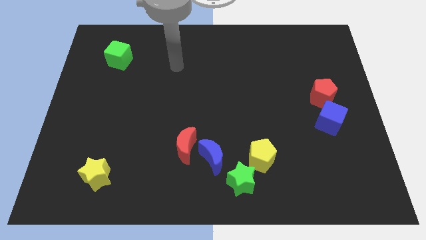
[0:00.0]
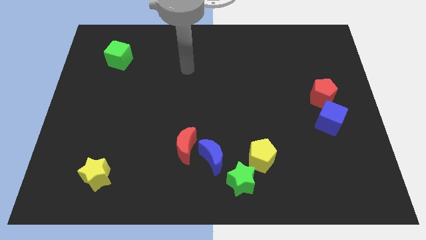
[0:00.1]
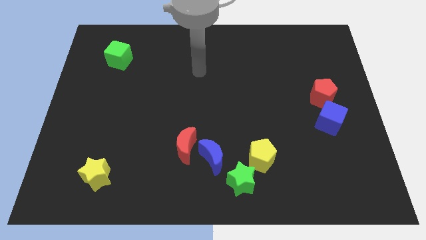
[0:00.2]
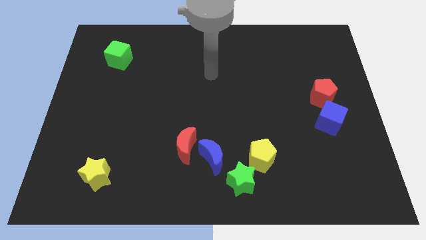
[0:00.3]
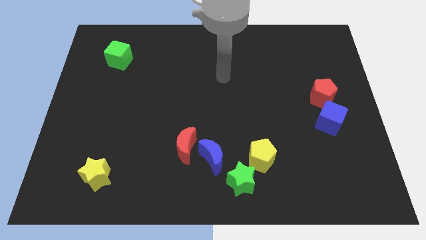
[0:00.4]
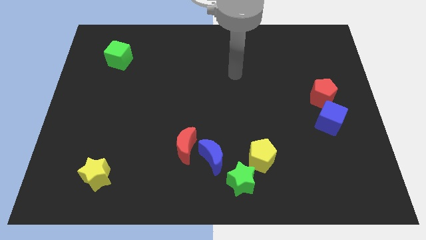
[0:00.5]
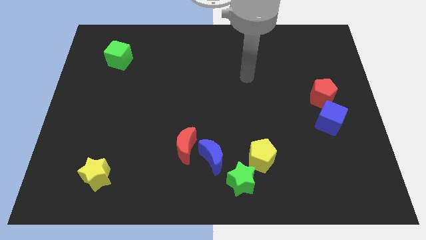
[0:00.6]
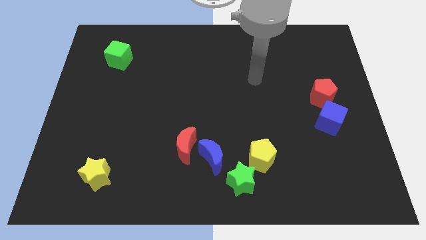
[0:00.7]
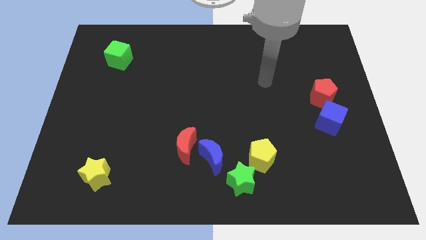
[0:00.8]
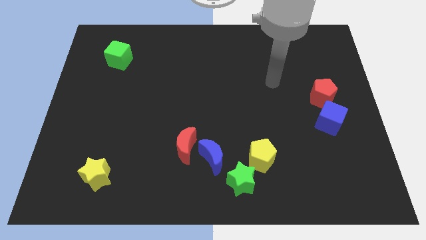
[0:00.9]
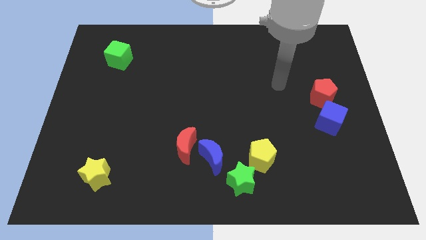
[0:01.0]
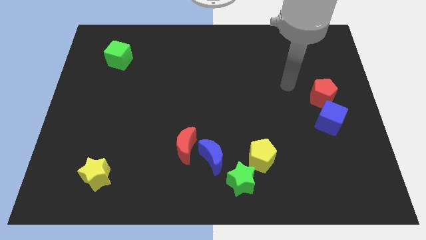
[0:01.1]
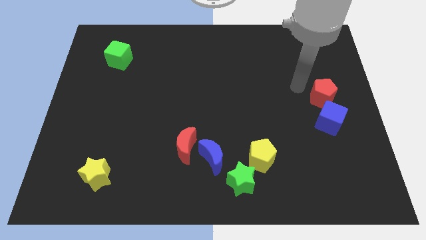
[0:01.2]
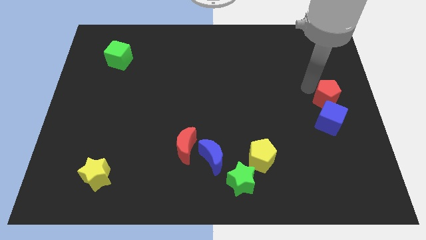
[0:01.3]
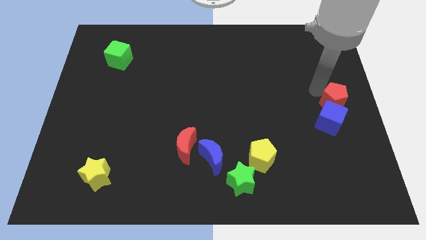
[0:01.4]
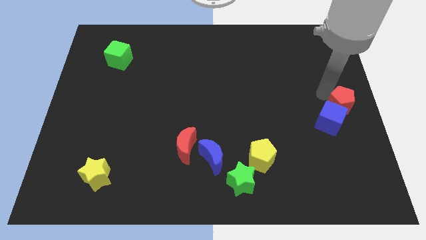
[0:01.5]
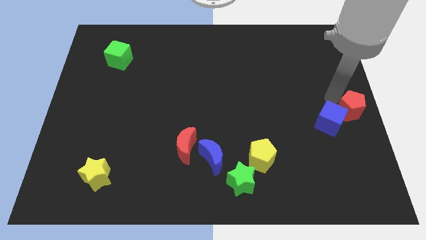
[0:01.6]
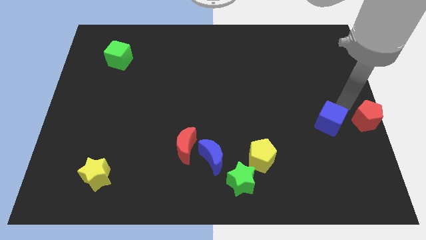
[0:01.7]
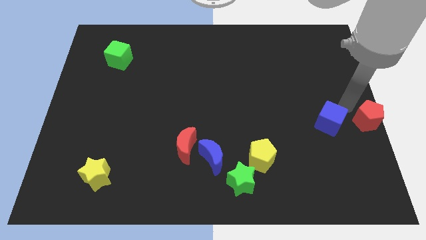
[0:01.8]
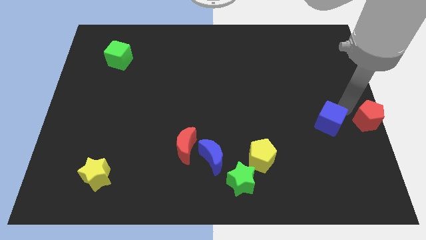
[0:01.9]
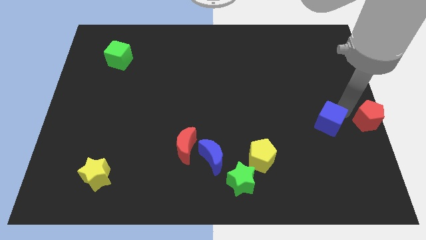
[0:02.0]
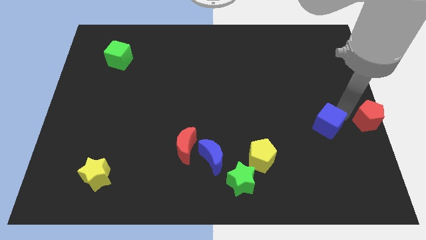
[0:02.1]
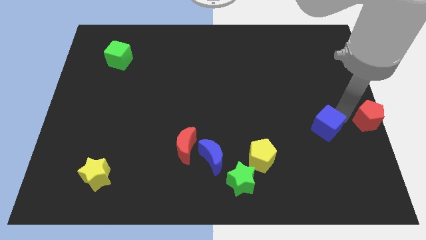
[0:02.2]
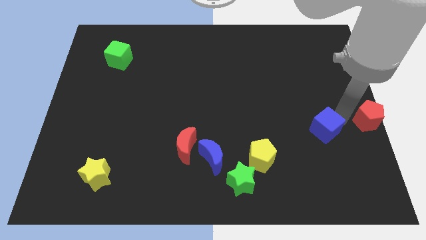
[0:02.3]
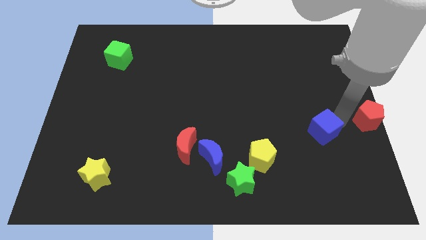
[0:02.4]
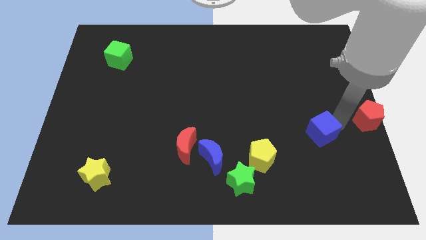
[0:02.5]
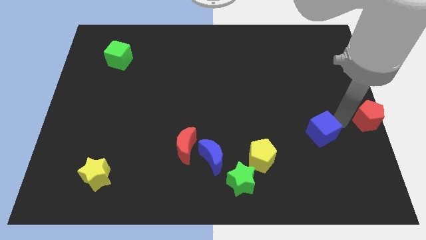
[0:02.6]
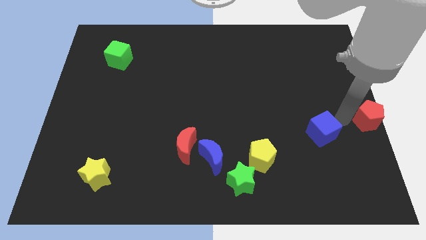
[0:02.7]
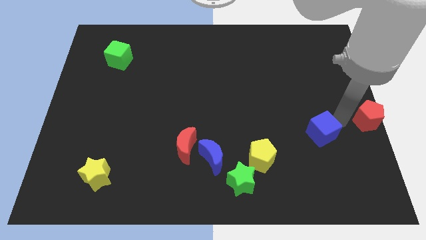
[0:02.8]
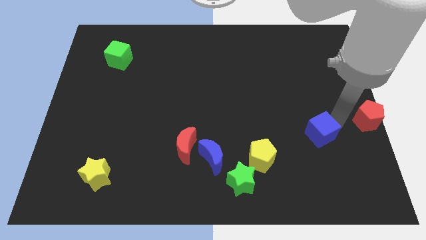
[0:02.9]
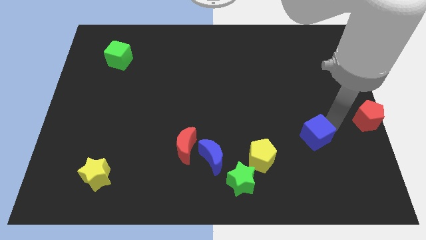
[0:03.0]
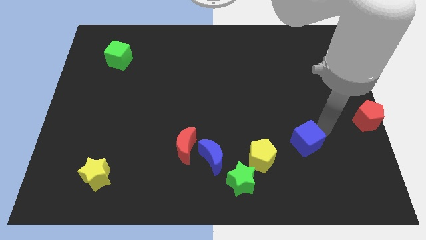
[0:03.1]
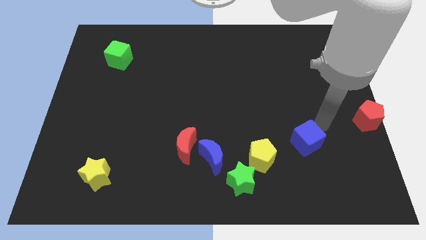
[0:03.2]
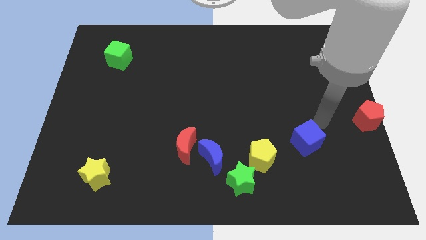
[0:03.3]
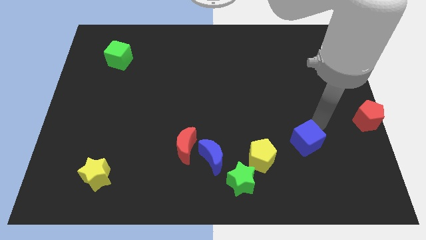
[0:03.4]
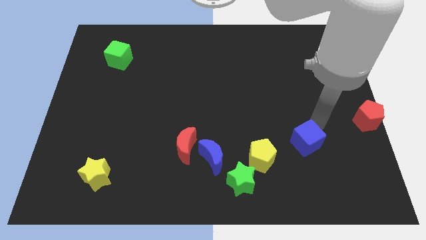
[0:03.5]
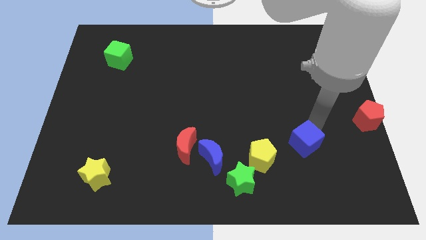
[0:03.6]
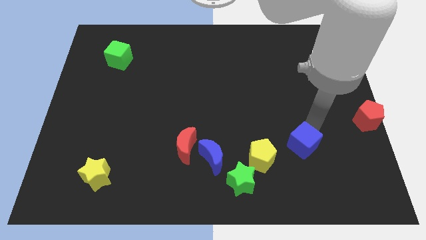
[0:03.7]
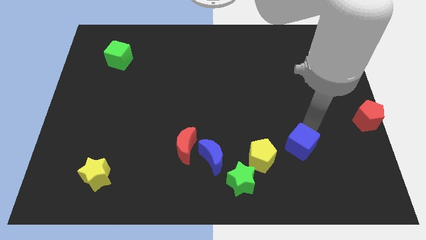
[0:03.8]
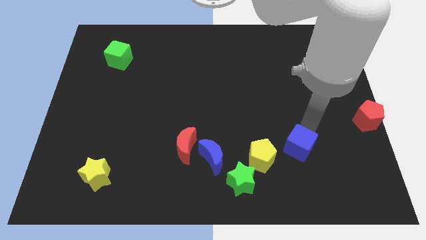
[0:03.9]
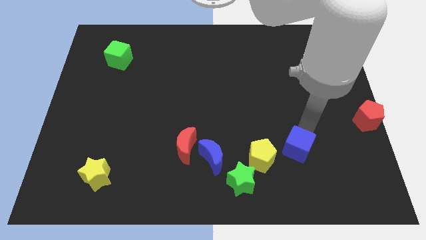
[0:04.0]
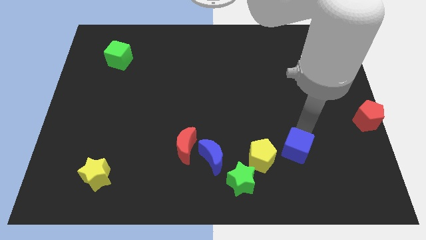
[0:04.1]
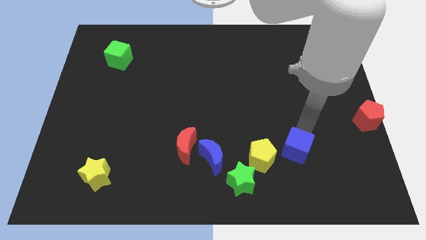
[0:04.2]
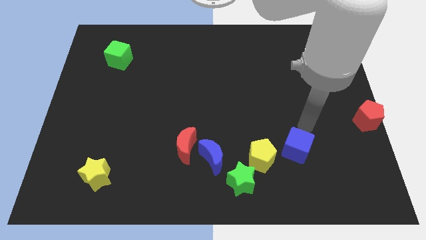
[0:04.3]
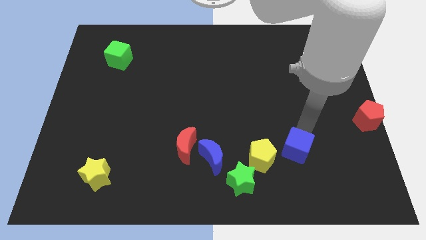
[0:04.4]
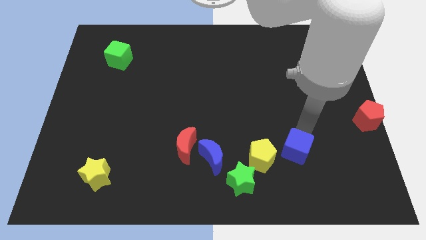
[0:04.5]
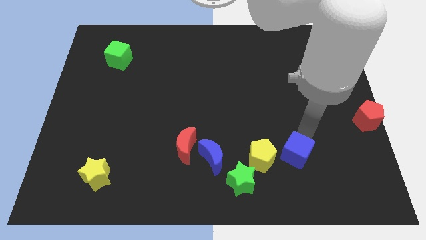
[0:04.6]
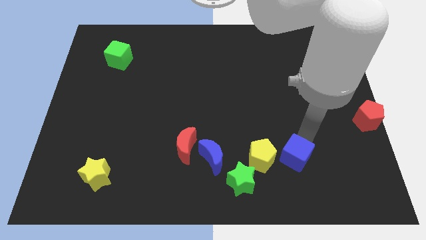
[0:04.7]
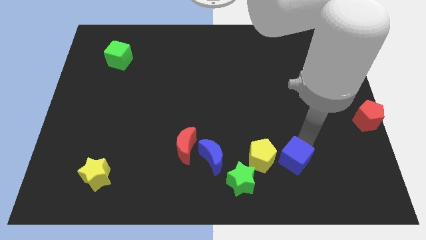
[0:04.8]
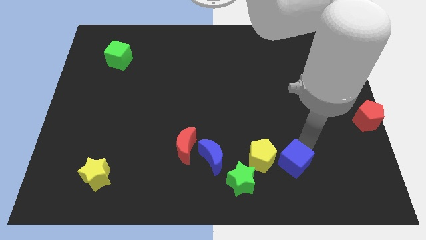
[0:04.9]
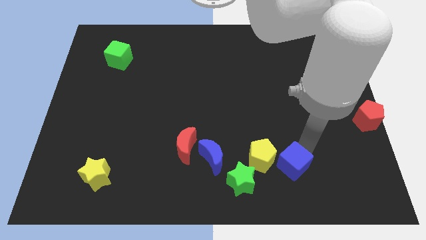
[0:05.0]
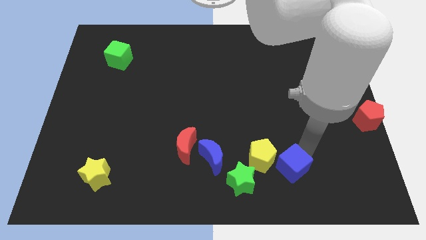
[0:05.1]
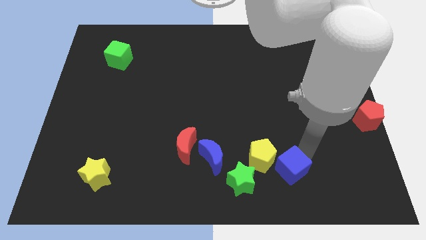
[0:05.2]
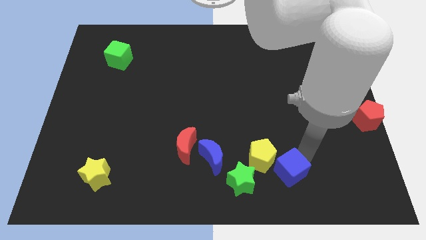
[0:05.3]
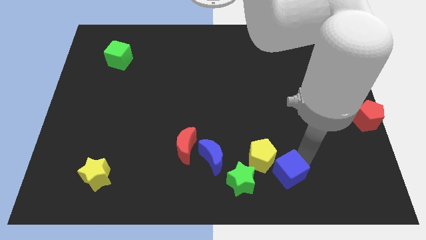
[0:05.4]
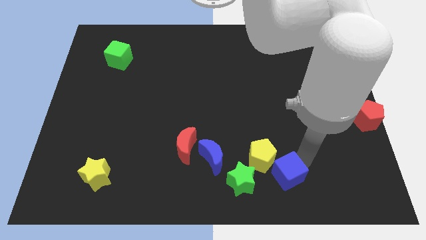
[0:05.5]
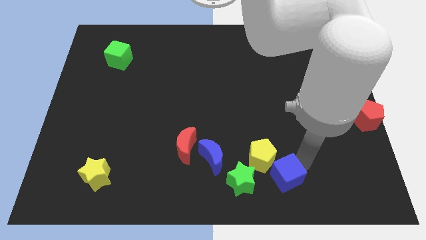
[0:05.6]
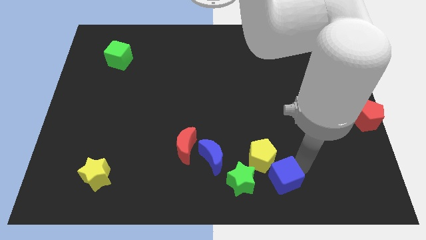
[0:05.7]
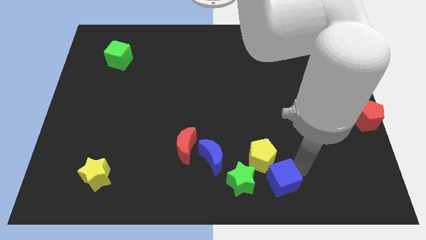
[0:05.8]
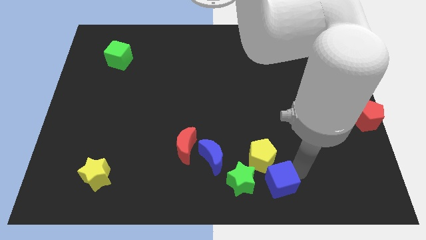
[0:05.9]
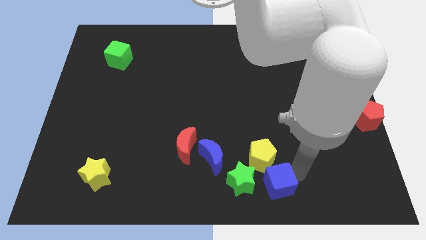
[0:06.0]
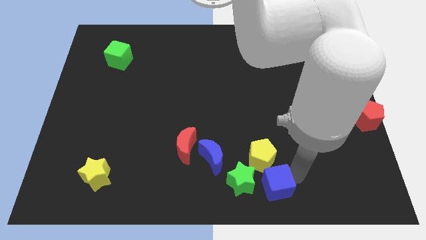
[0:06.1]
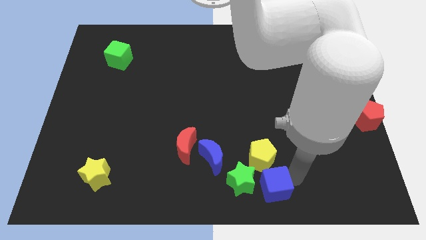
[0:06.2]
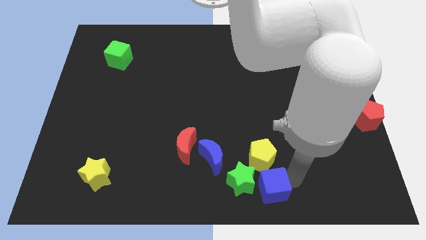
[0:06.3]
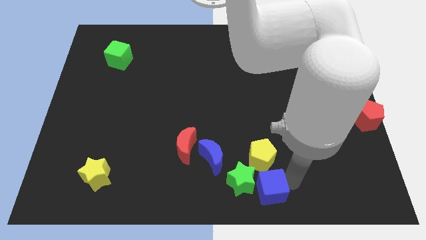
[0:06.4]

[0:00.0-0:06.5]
push the blue cube next to the green star
